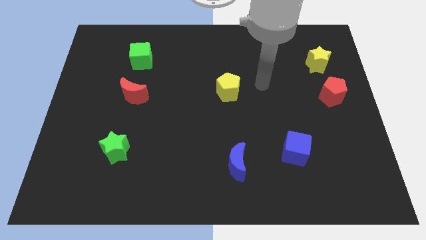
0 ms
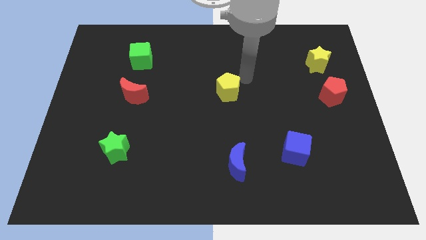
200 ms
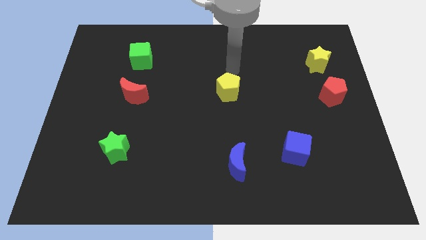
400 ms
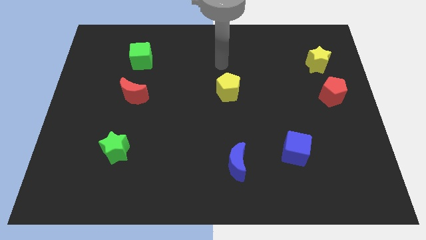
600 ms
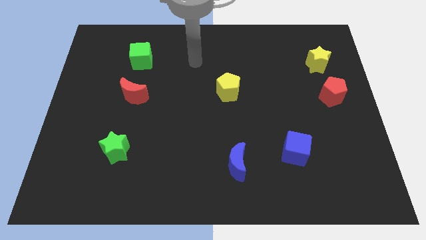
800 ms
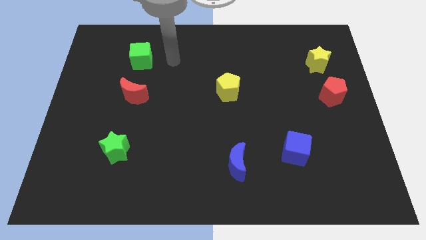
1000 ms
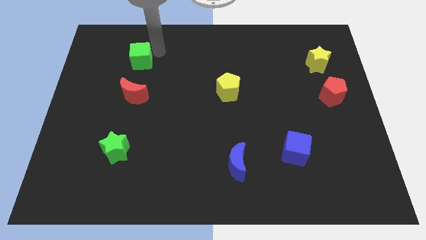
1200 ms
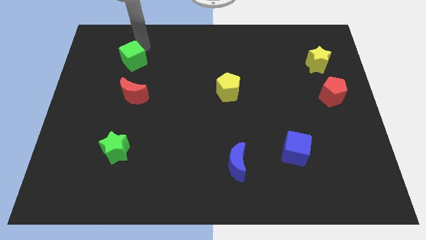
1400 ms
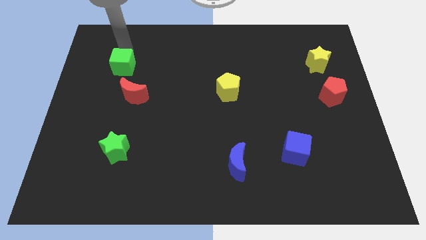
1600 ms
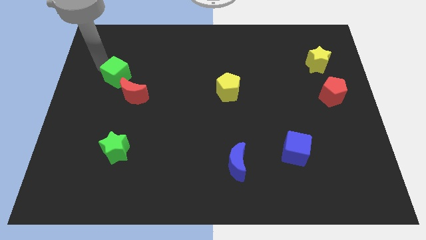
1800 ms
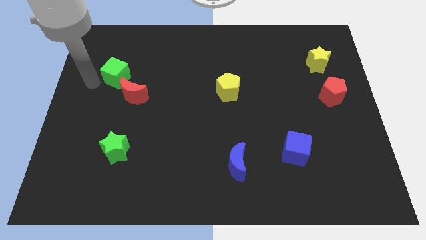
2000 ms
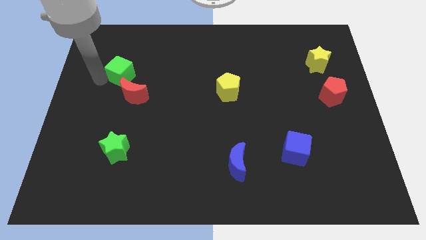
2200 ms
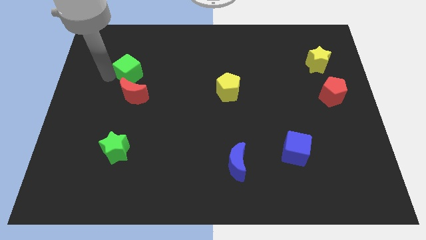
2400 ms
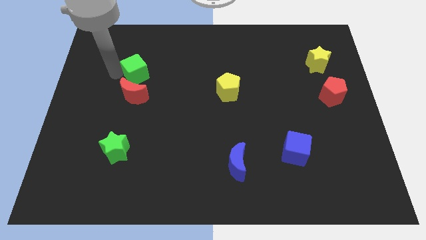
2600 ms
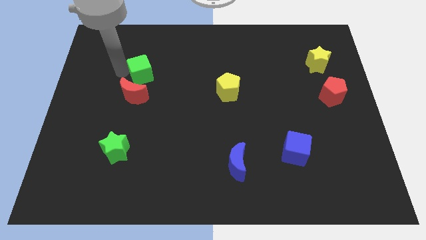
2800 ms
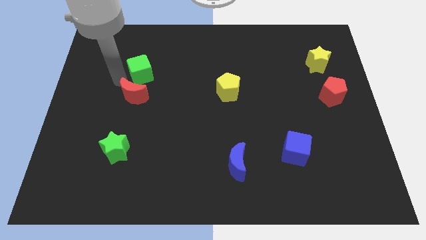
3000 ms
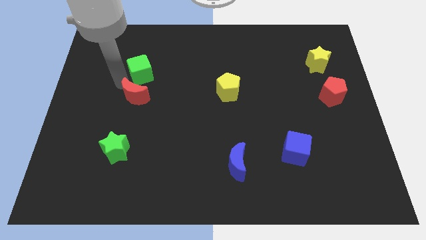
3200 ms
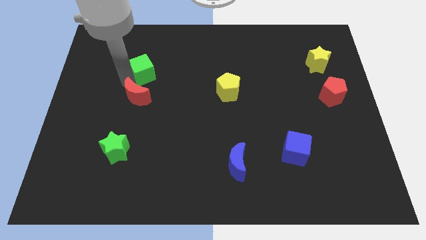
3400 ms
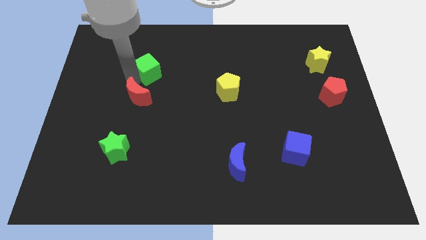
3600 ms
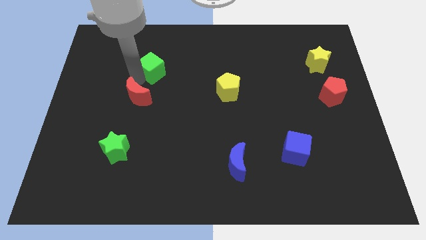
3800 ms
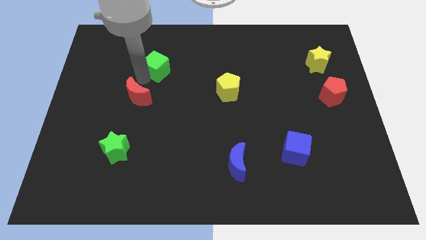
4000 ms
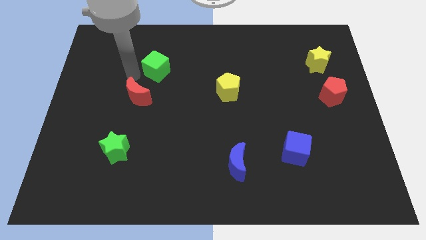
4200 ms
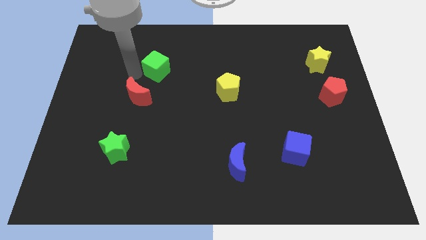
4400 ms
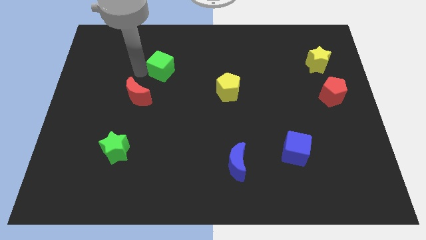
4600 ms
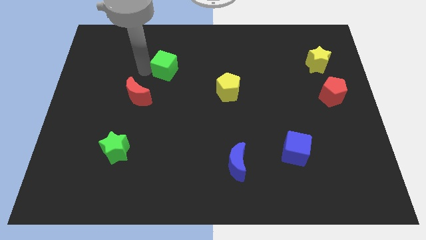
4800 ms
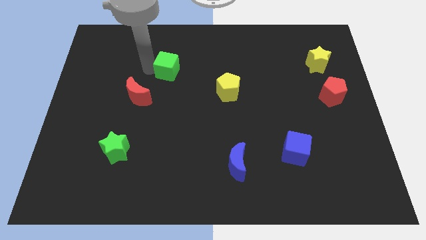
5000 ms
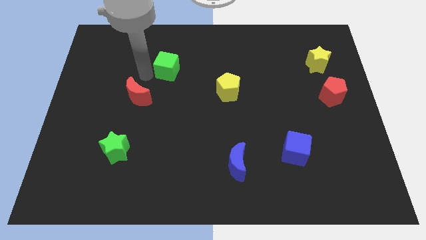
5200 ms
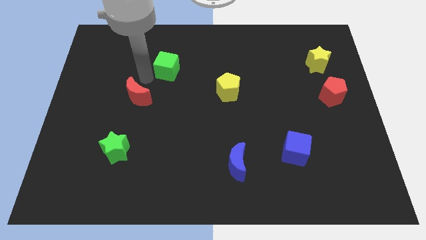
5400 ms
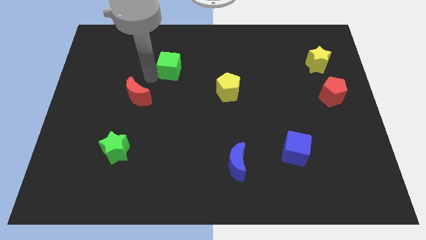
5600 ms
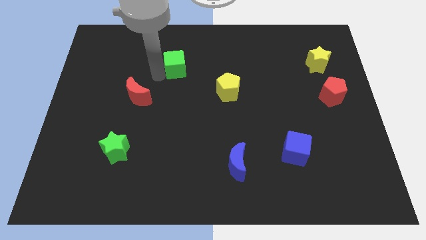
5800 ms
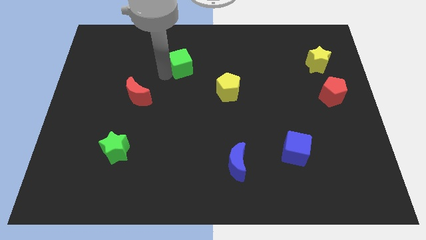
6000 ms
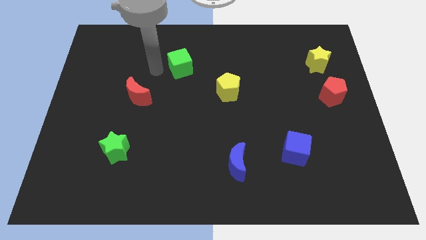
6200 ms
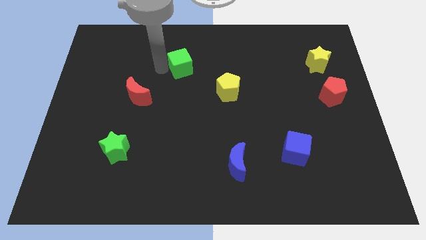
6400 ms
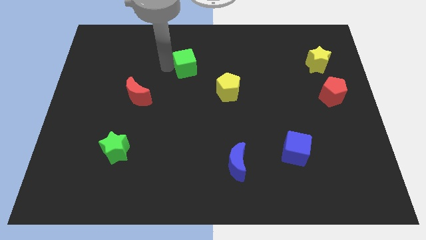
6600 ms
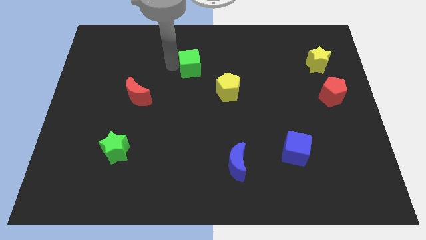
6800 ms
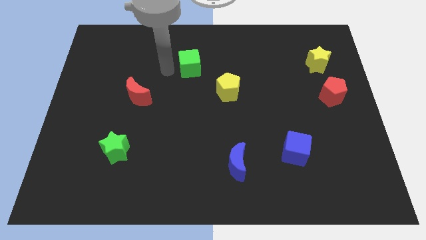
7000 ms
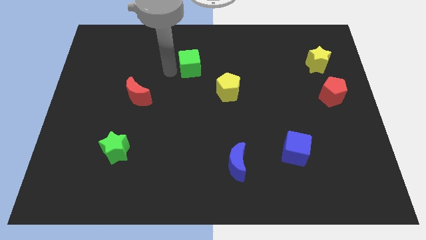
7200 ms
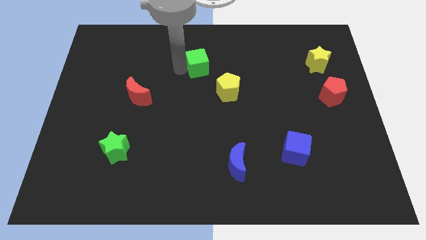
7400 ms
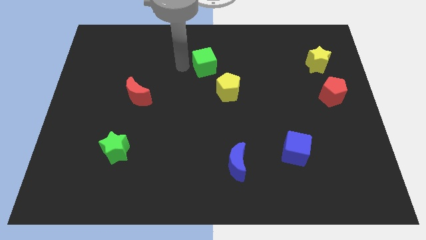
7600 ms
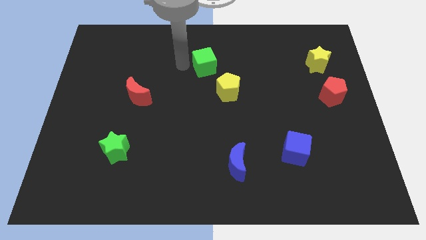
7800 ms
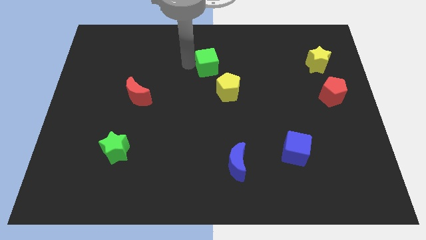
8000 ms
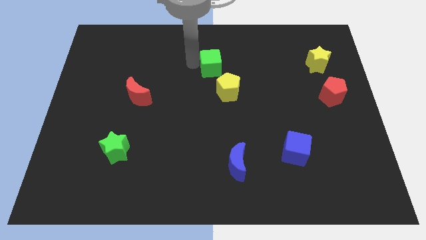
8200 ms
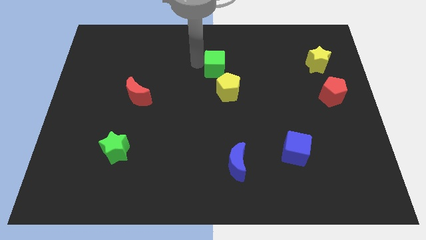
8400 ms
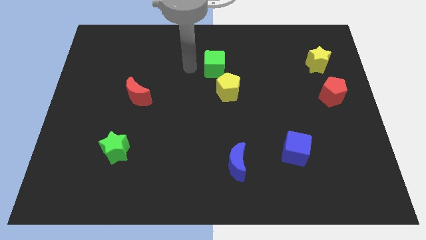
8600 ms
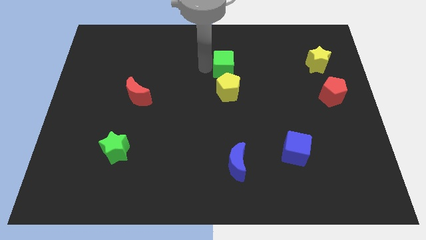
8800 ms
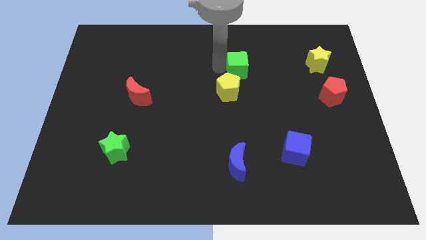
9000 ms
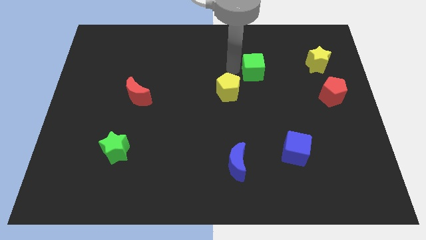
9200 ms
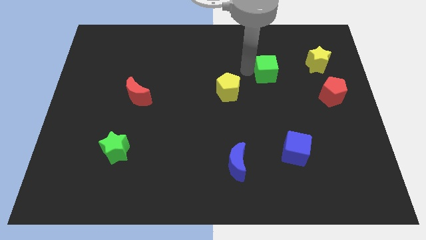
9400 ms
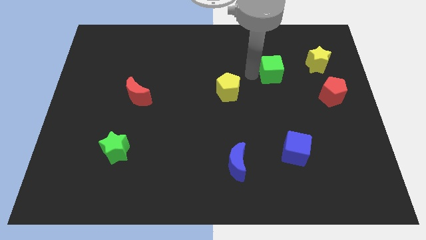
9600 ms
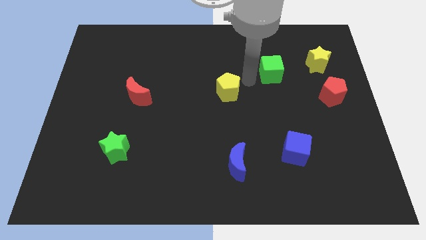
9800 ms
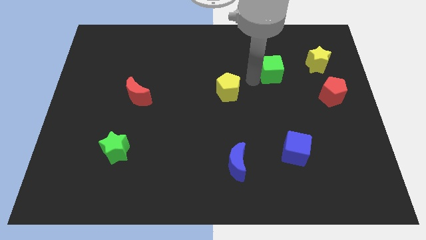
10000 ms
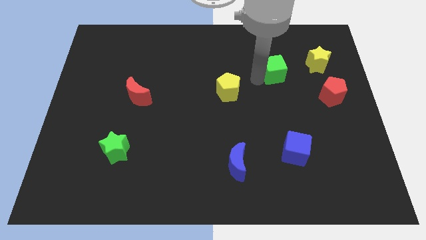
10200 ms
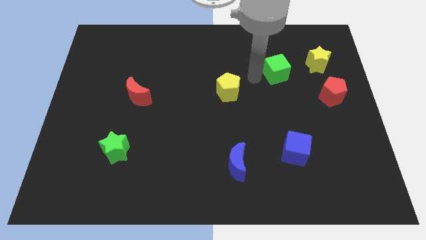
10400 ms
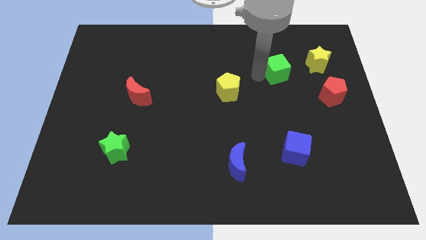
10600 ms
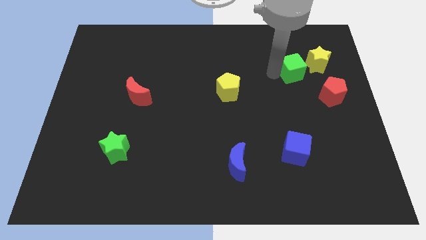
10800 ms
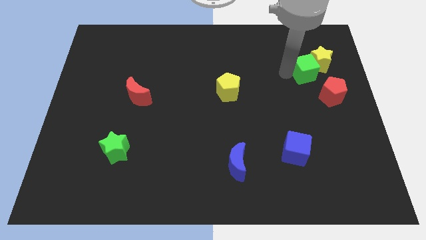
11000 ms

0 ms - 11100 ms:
put the green cube towards the yellow star

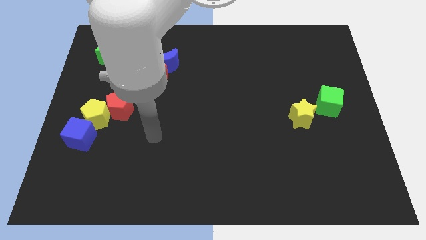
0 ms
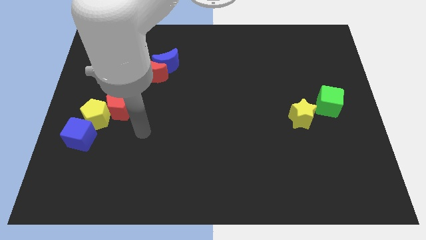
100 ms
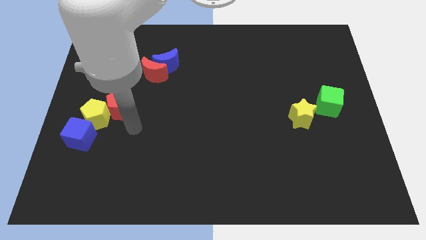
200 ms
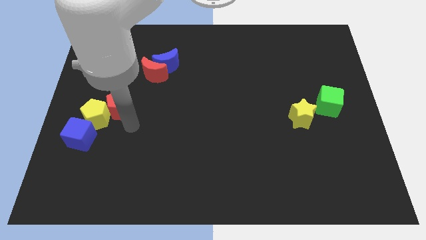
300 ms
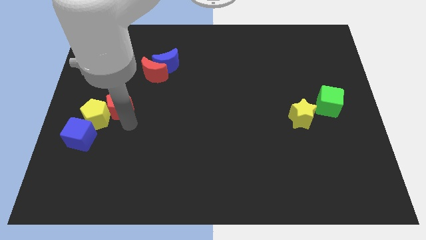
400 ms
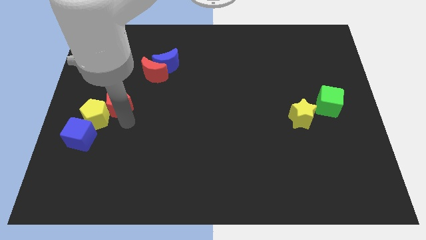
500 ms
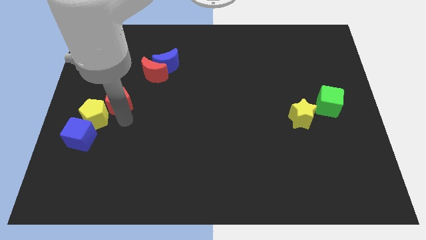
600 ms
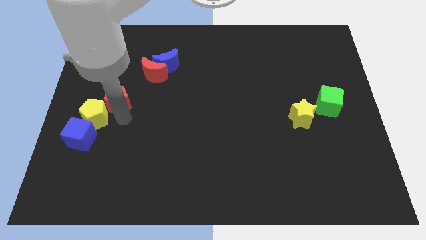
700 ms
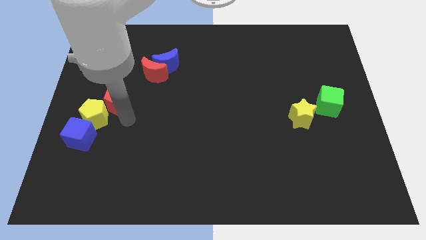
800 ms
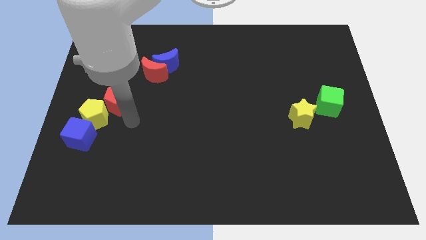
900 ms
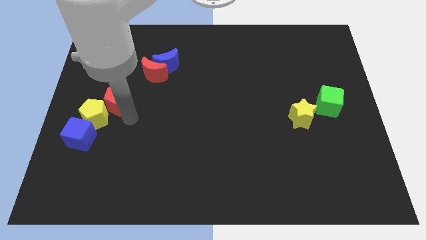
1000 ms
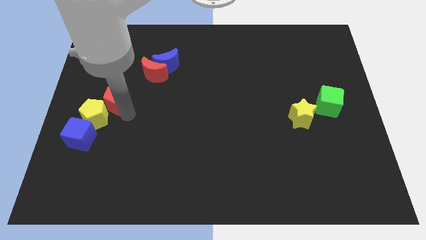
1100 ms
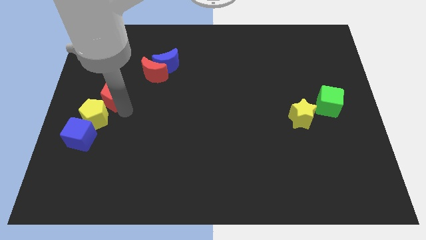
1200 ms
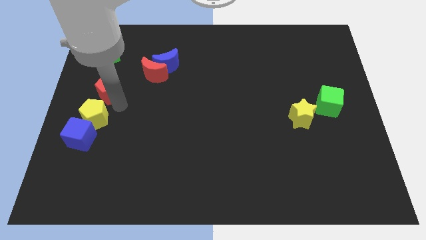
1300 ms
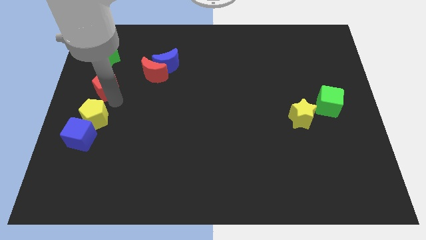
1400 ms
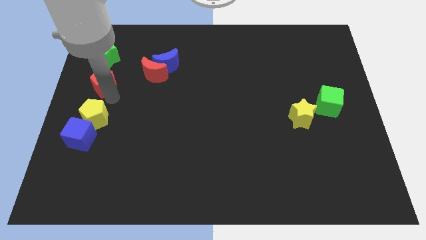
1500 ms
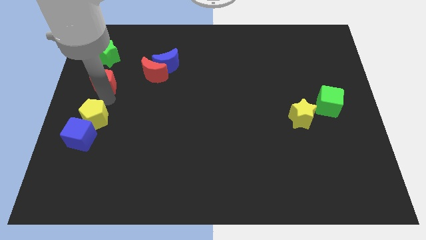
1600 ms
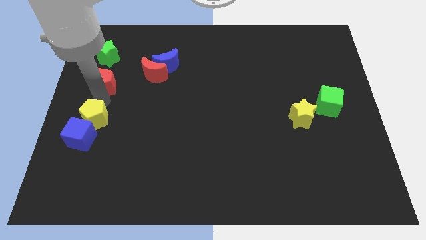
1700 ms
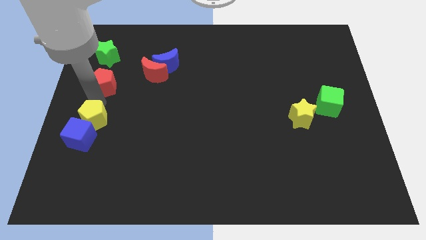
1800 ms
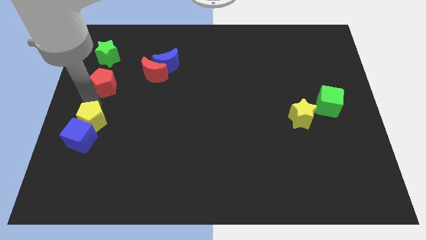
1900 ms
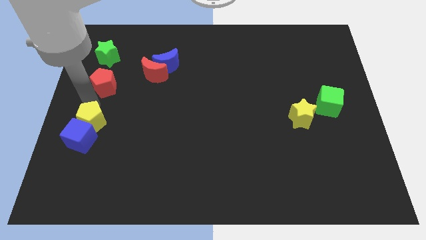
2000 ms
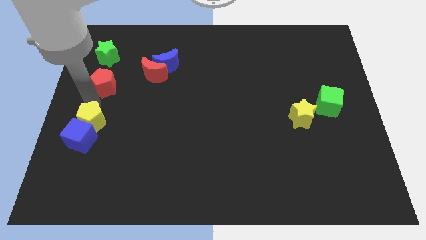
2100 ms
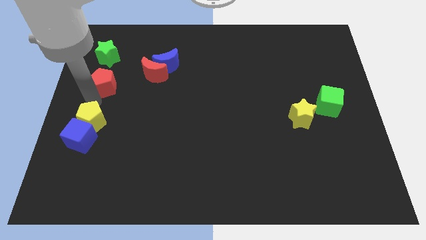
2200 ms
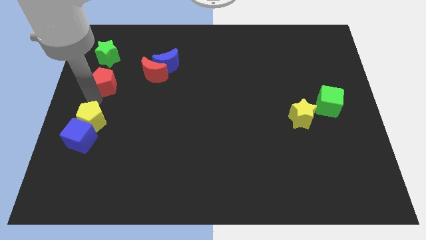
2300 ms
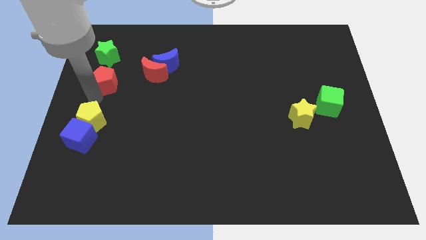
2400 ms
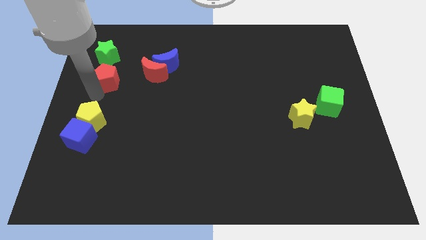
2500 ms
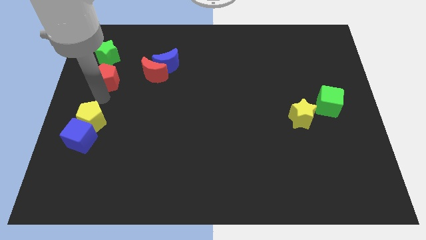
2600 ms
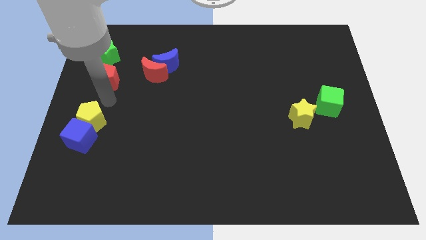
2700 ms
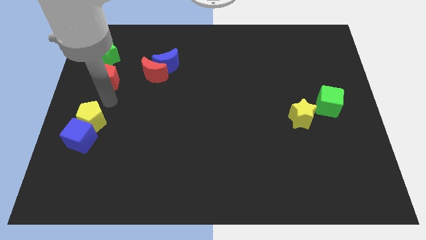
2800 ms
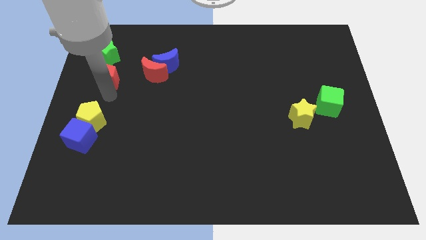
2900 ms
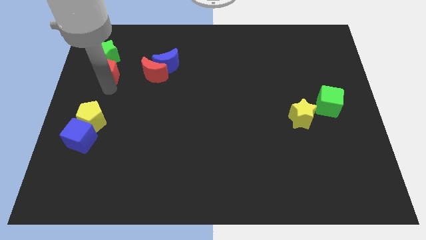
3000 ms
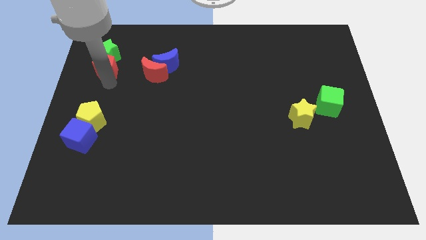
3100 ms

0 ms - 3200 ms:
slide the red pentagon next to the green star
